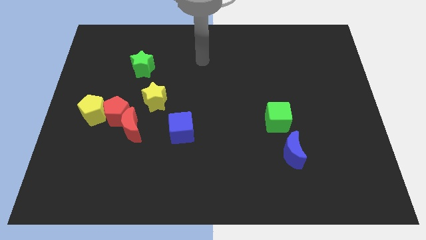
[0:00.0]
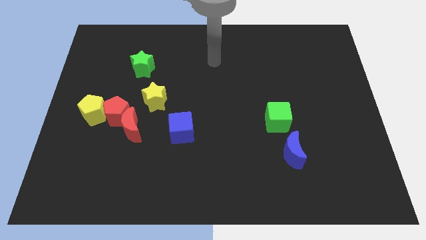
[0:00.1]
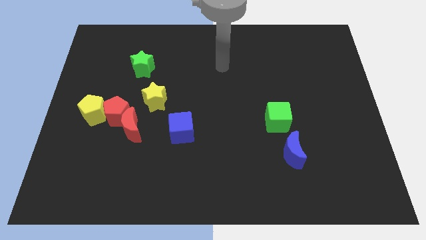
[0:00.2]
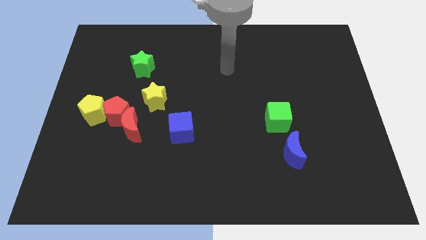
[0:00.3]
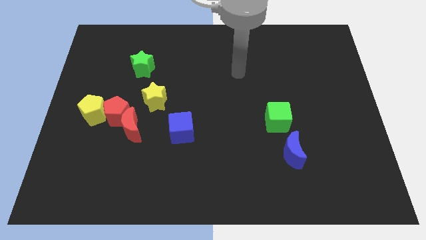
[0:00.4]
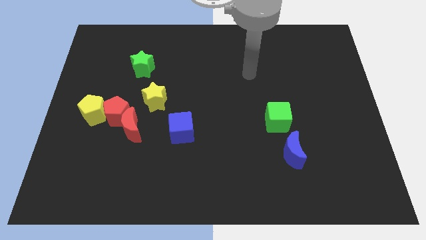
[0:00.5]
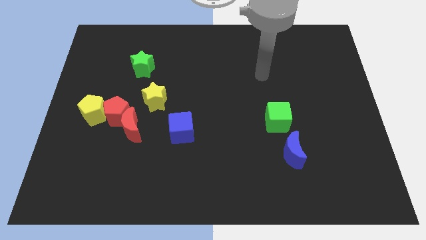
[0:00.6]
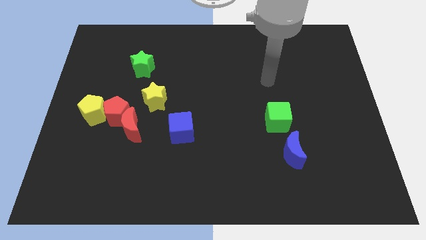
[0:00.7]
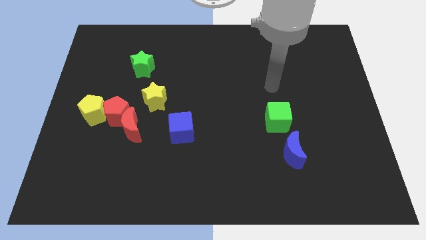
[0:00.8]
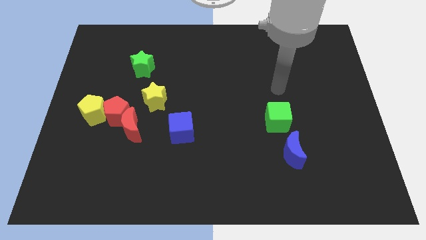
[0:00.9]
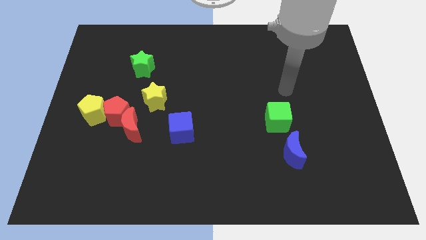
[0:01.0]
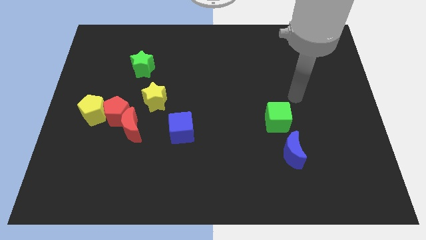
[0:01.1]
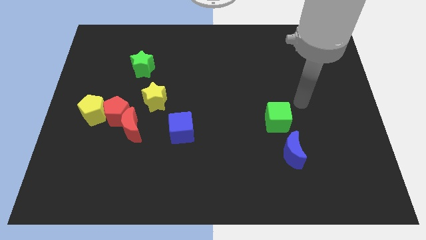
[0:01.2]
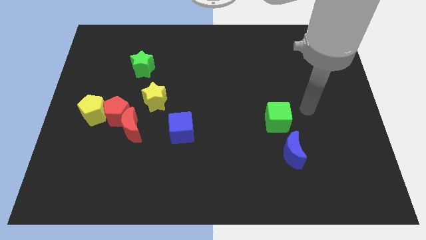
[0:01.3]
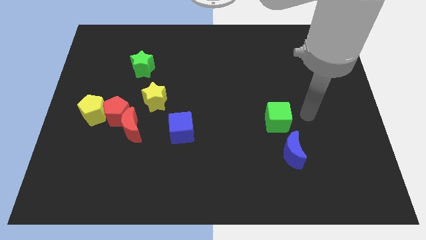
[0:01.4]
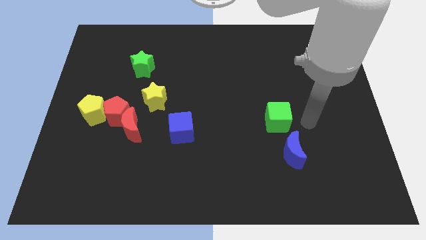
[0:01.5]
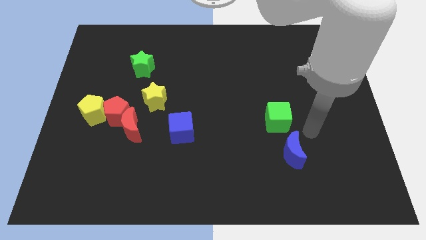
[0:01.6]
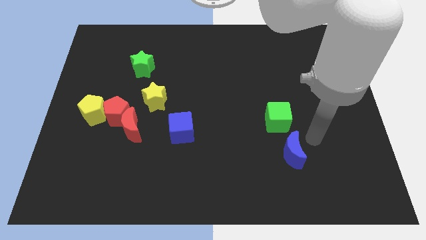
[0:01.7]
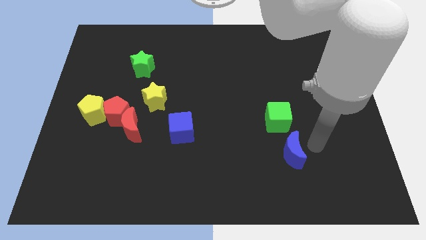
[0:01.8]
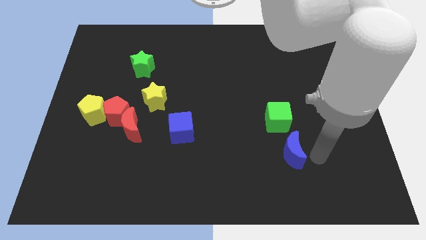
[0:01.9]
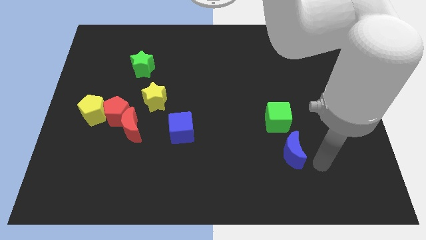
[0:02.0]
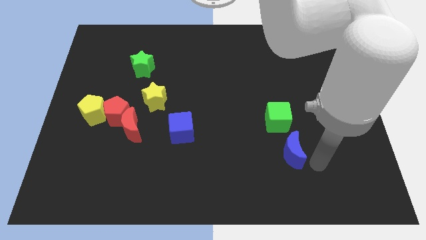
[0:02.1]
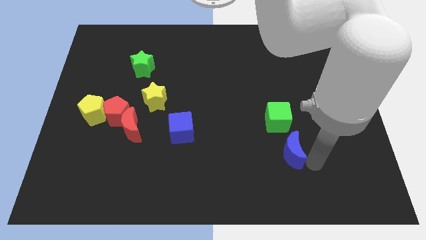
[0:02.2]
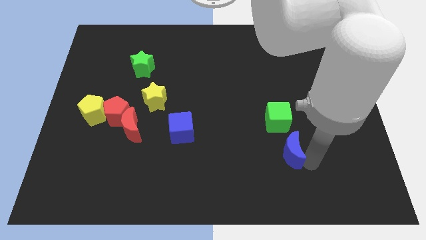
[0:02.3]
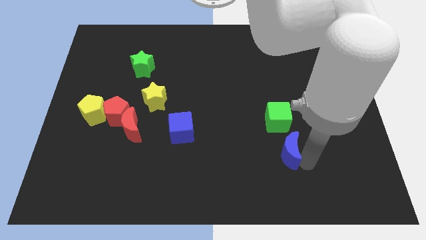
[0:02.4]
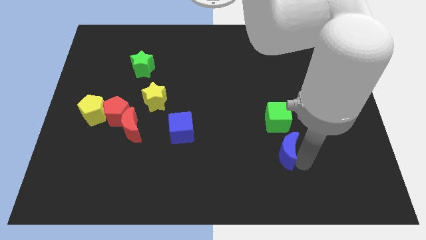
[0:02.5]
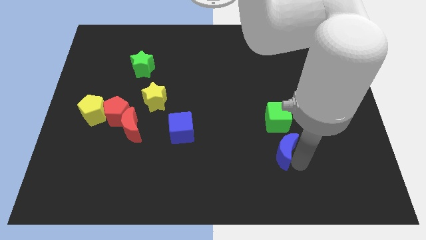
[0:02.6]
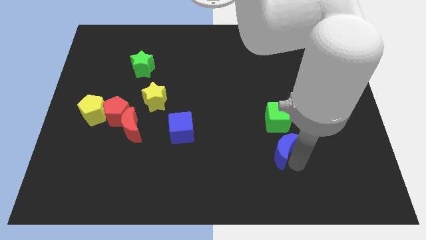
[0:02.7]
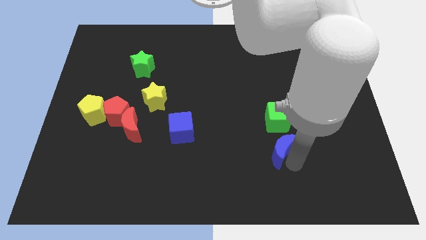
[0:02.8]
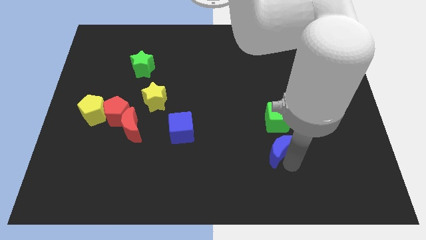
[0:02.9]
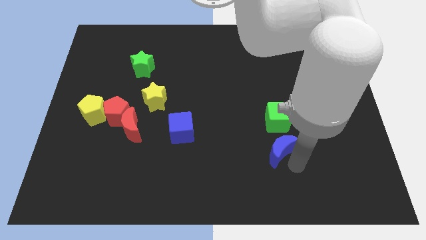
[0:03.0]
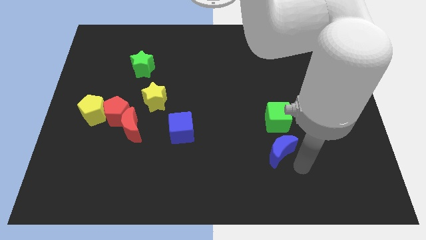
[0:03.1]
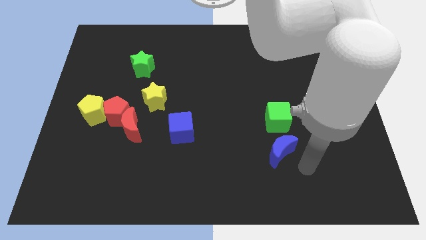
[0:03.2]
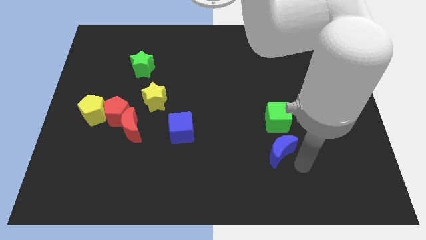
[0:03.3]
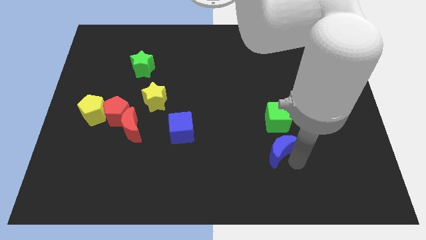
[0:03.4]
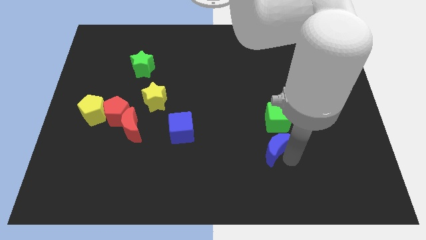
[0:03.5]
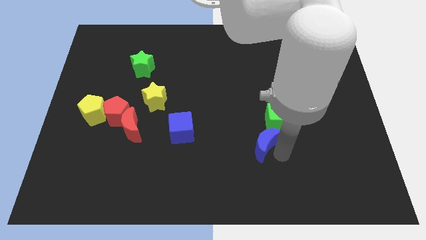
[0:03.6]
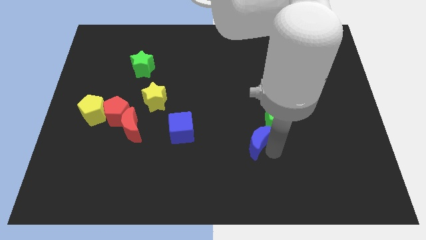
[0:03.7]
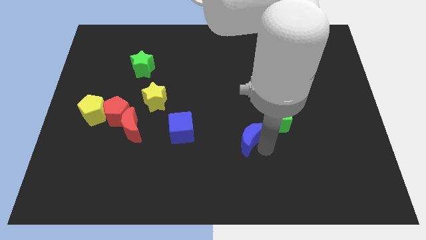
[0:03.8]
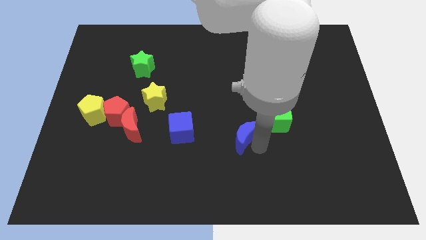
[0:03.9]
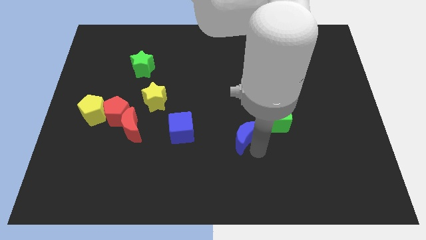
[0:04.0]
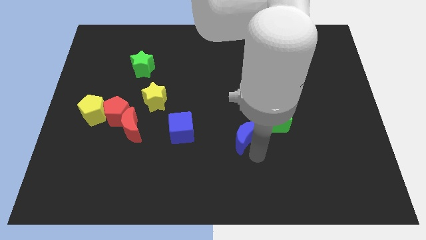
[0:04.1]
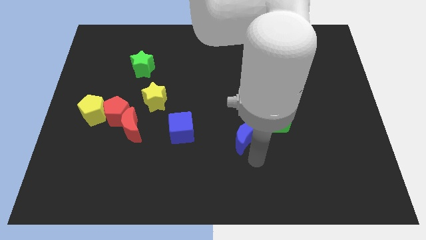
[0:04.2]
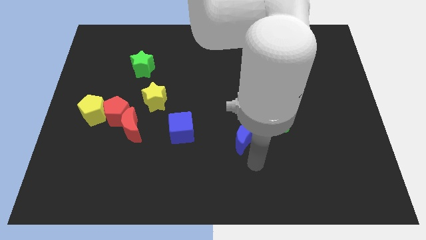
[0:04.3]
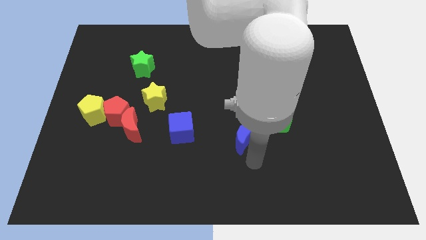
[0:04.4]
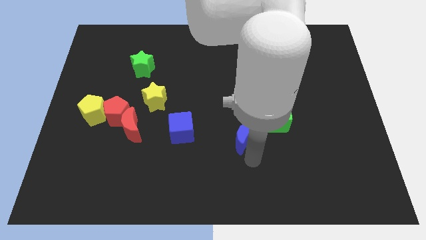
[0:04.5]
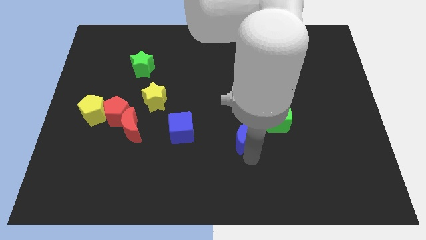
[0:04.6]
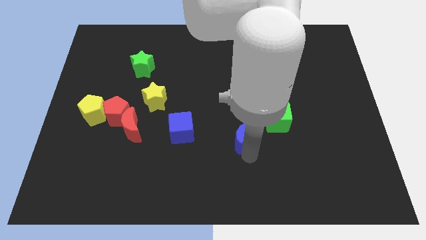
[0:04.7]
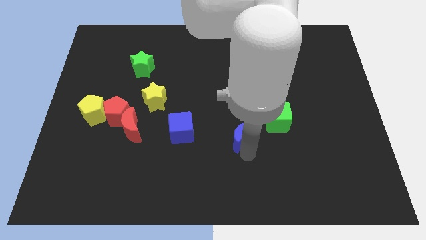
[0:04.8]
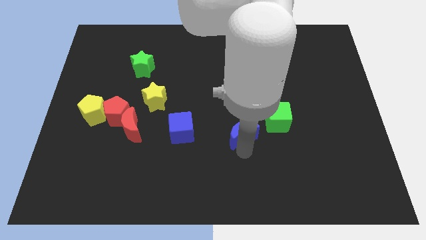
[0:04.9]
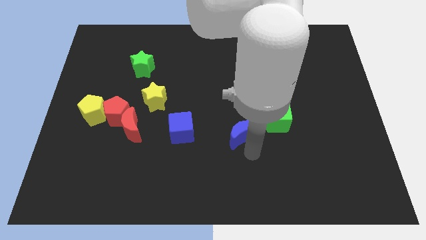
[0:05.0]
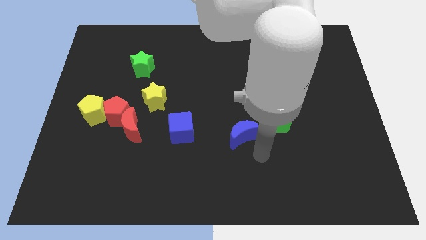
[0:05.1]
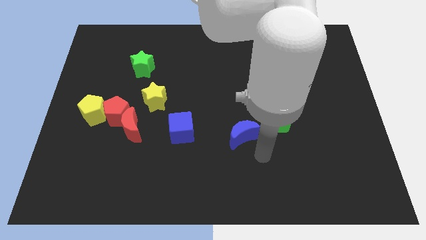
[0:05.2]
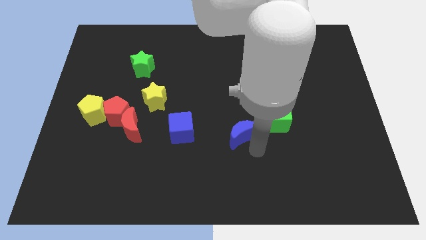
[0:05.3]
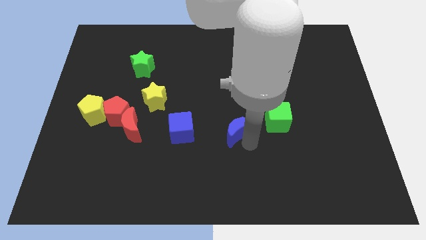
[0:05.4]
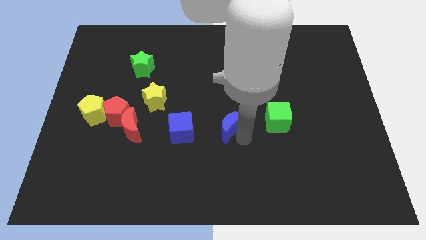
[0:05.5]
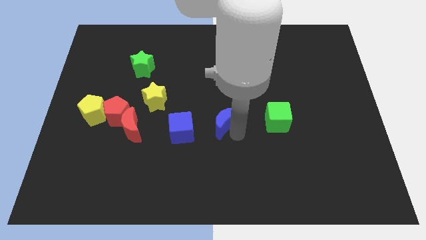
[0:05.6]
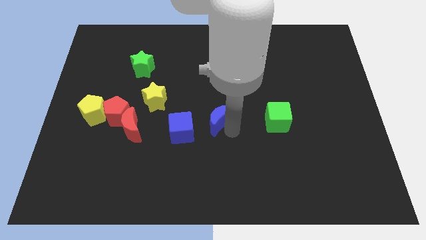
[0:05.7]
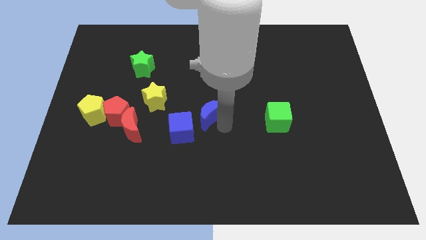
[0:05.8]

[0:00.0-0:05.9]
move the blue moon right of the yellow star
